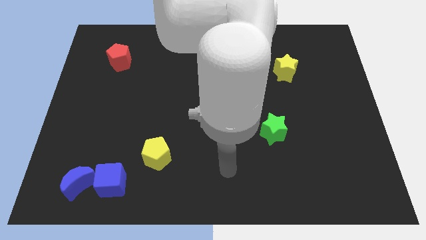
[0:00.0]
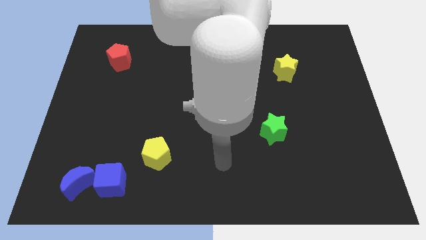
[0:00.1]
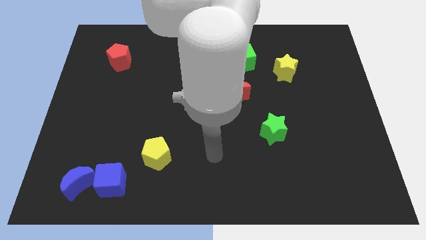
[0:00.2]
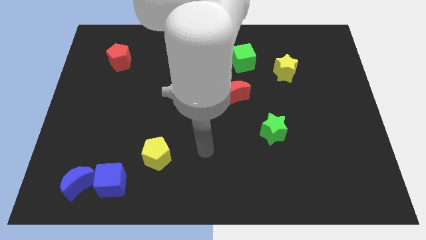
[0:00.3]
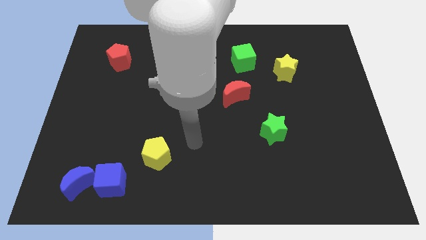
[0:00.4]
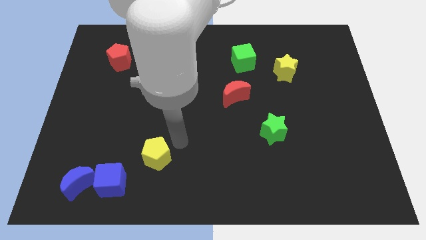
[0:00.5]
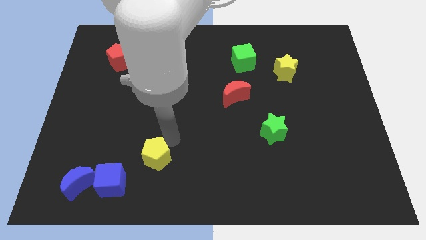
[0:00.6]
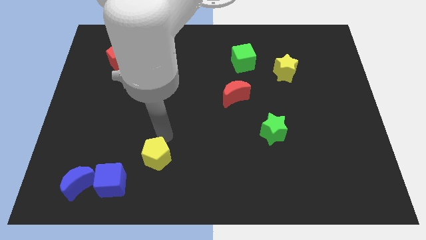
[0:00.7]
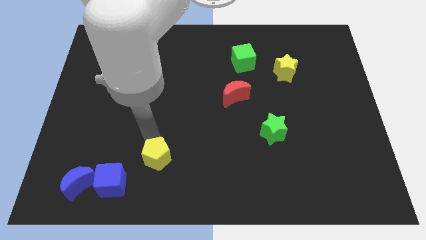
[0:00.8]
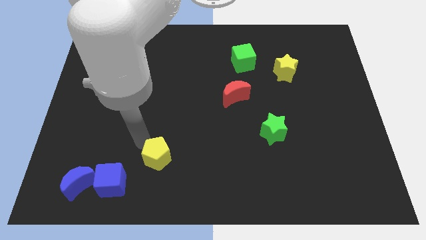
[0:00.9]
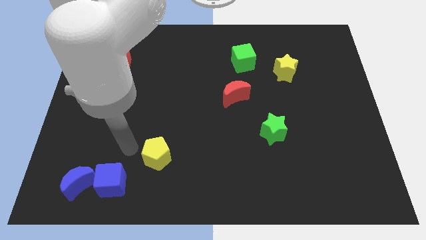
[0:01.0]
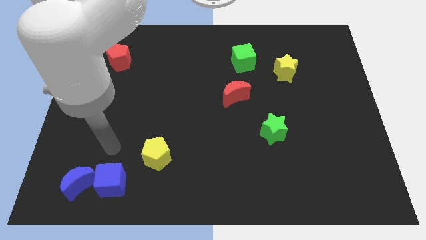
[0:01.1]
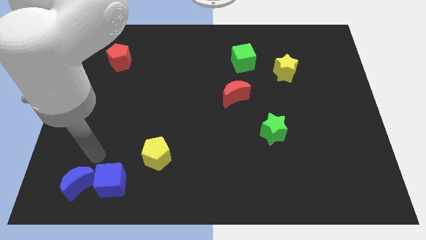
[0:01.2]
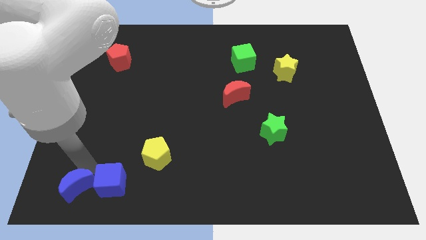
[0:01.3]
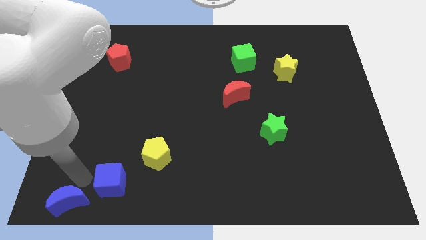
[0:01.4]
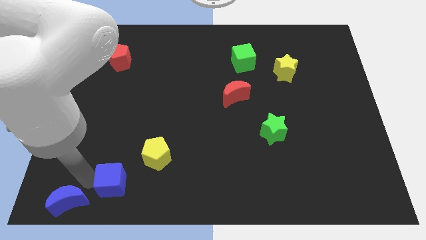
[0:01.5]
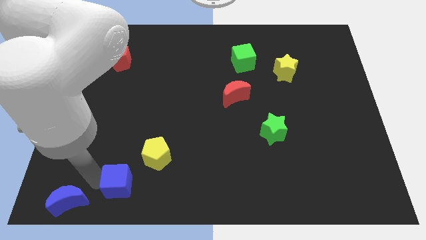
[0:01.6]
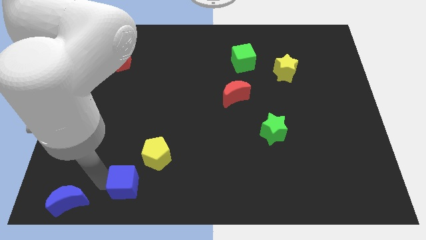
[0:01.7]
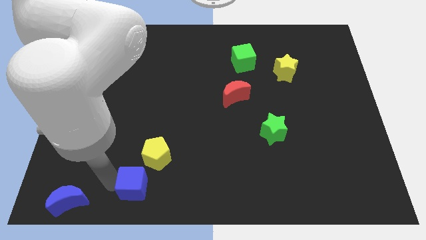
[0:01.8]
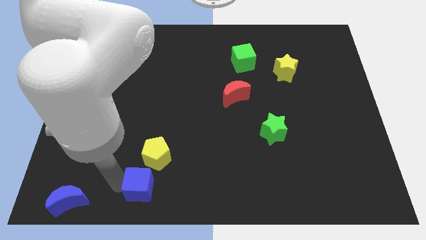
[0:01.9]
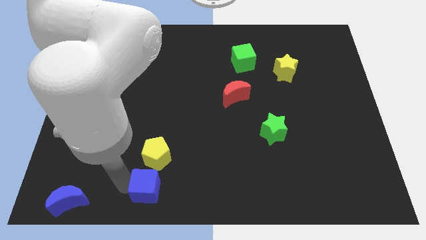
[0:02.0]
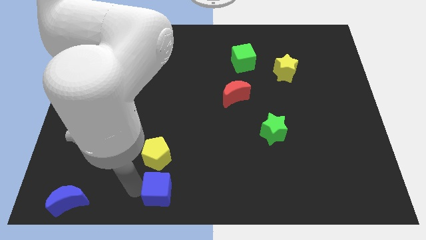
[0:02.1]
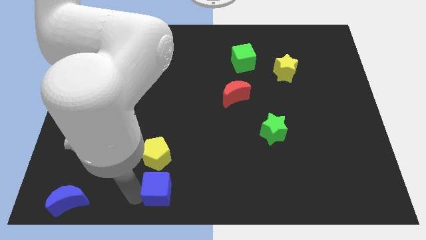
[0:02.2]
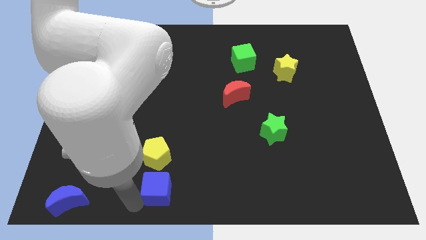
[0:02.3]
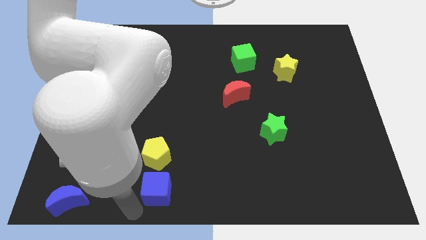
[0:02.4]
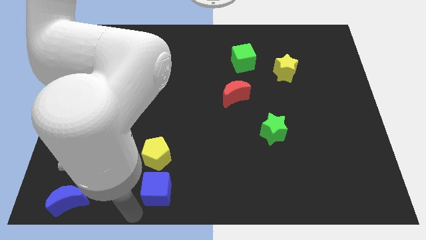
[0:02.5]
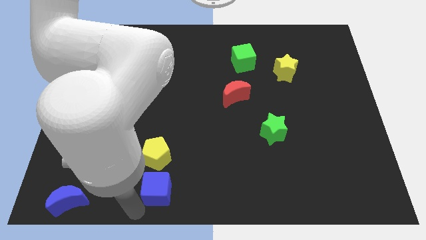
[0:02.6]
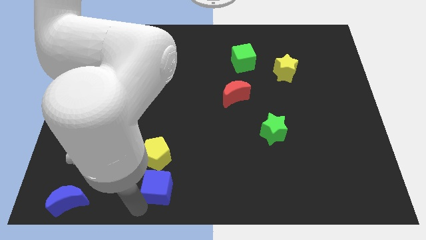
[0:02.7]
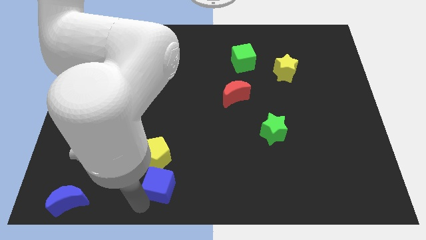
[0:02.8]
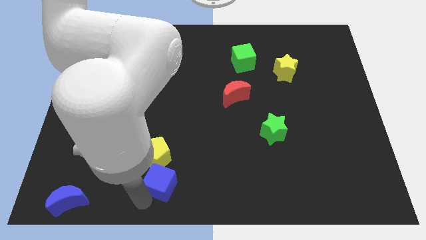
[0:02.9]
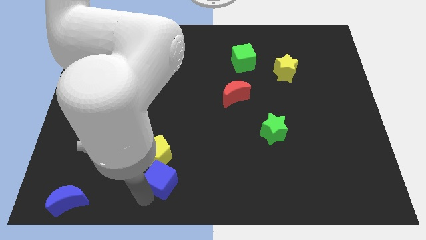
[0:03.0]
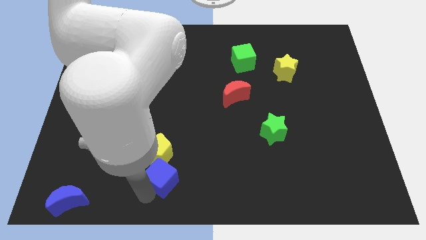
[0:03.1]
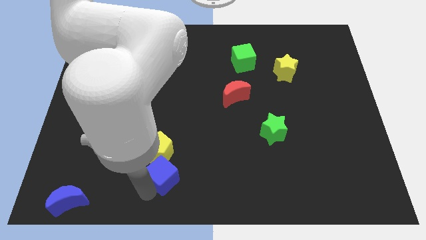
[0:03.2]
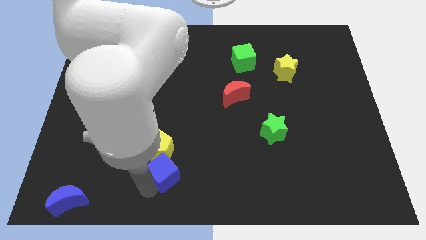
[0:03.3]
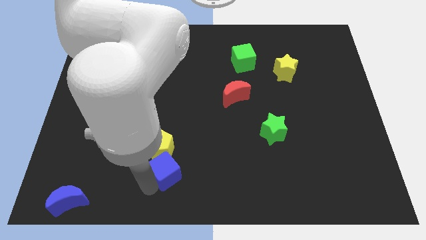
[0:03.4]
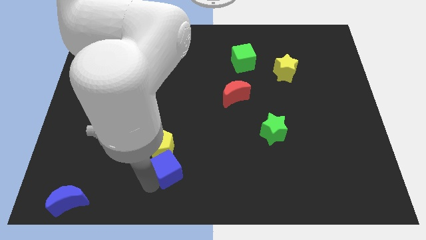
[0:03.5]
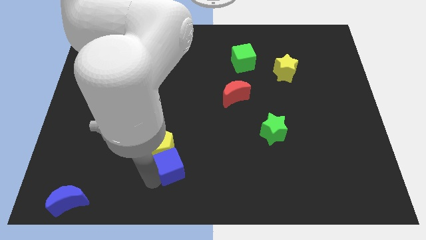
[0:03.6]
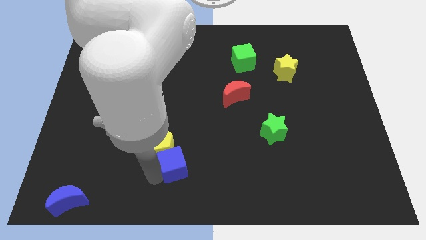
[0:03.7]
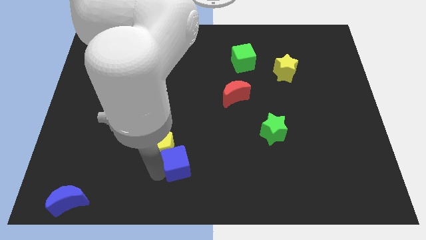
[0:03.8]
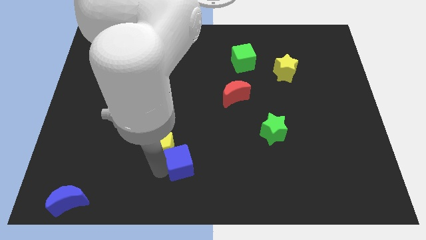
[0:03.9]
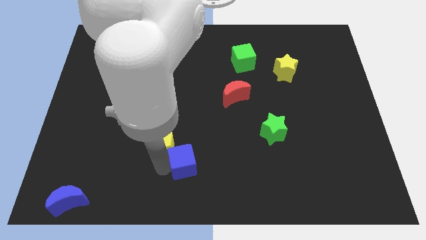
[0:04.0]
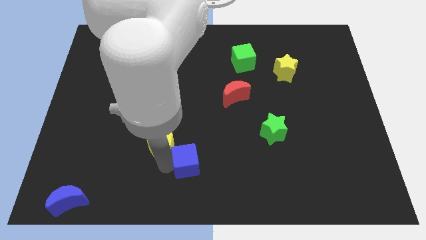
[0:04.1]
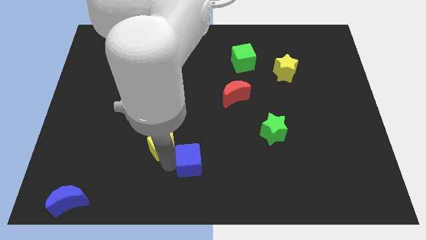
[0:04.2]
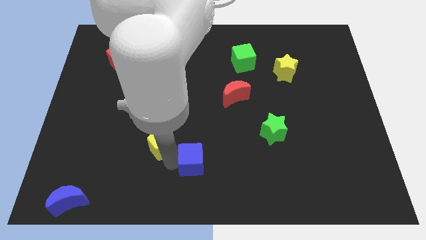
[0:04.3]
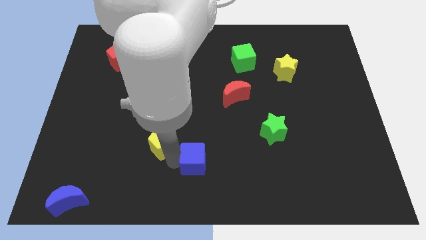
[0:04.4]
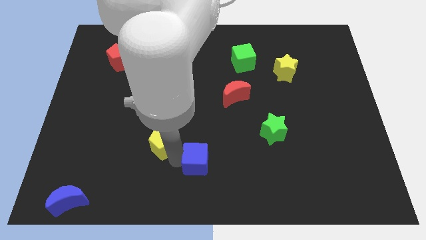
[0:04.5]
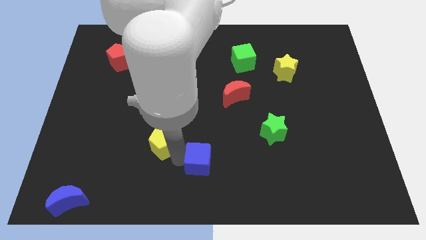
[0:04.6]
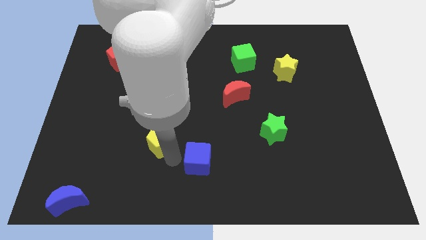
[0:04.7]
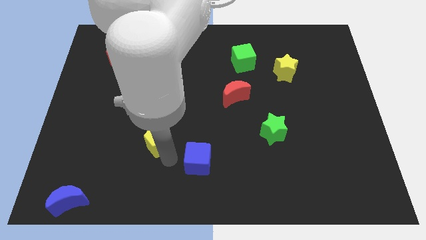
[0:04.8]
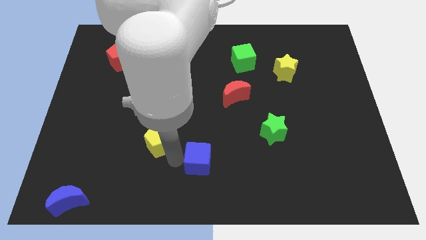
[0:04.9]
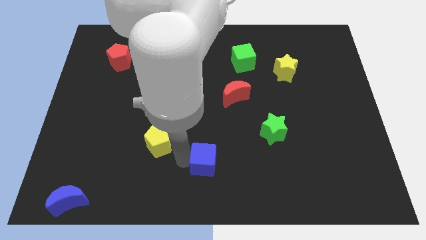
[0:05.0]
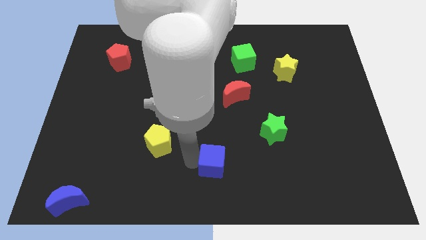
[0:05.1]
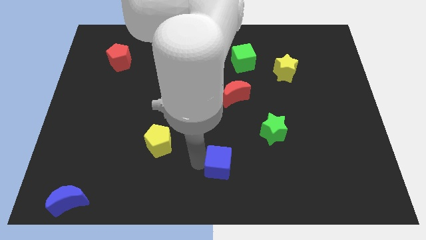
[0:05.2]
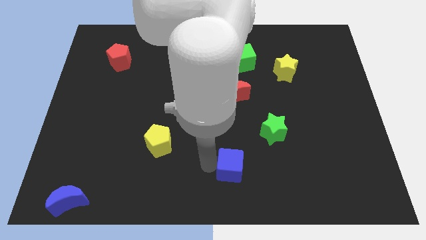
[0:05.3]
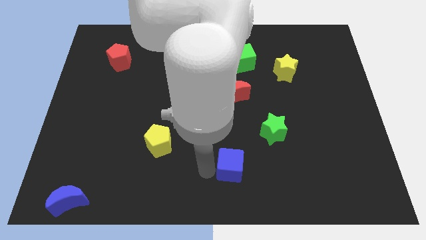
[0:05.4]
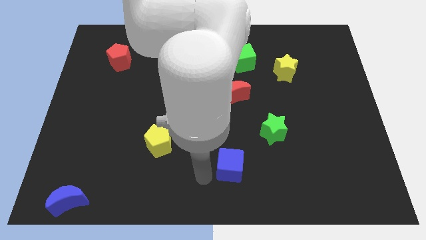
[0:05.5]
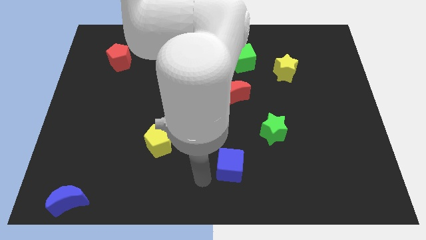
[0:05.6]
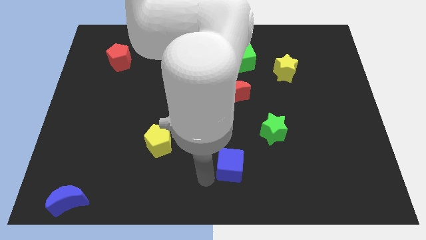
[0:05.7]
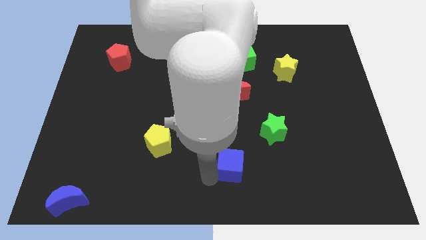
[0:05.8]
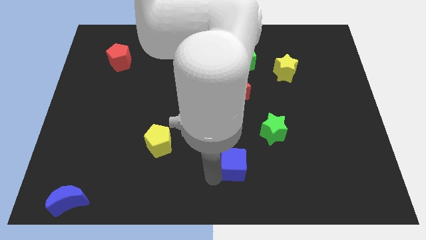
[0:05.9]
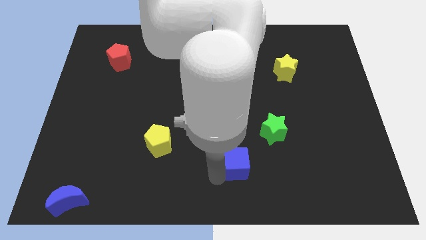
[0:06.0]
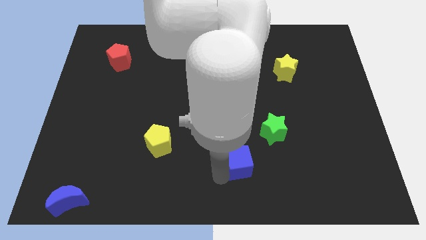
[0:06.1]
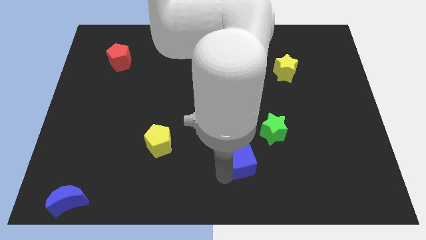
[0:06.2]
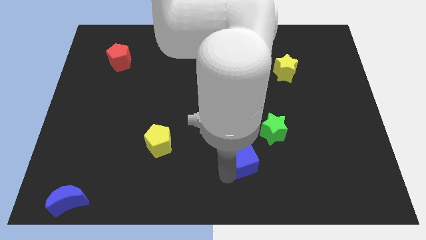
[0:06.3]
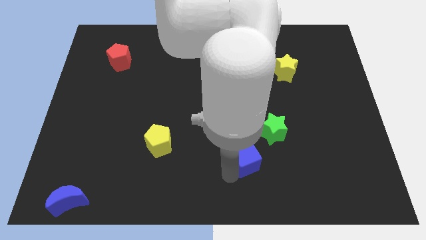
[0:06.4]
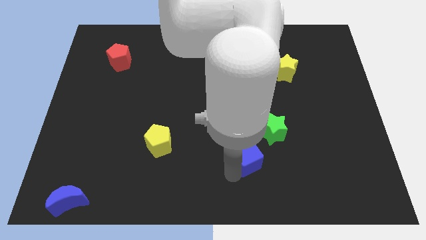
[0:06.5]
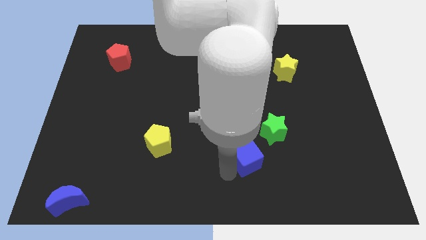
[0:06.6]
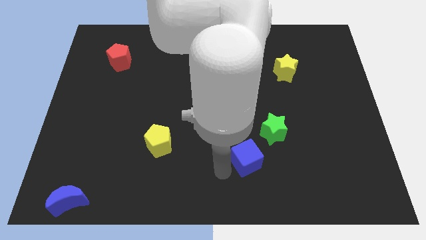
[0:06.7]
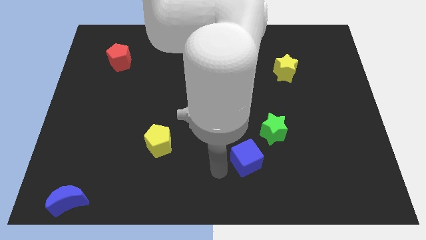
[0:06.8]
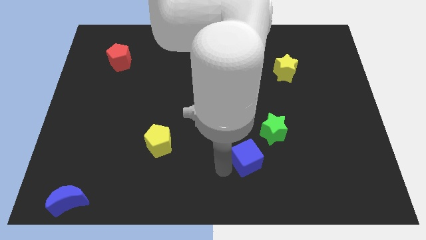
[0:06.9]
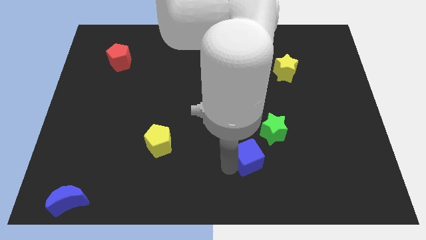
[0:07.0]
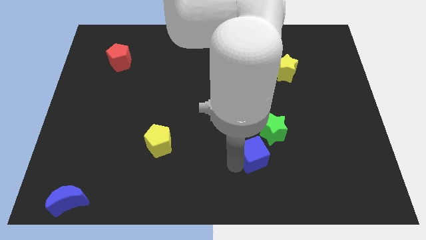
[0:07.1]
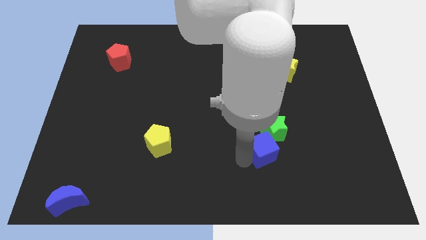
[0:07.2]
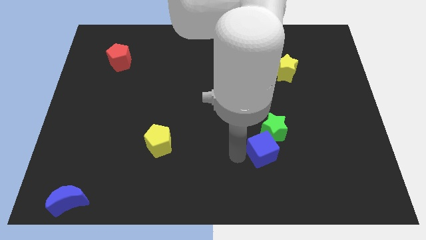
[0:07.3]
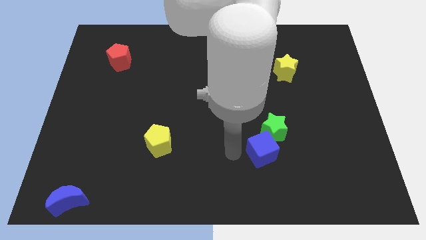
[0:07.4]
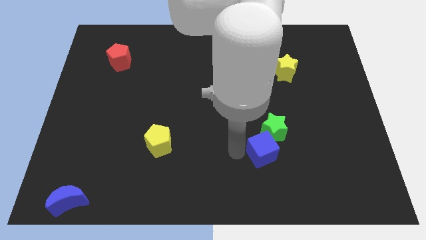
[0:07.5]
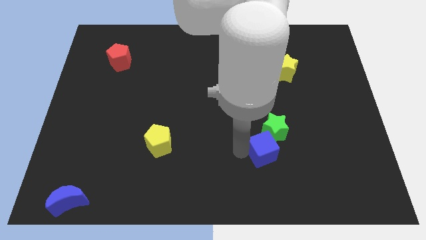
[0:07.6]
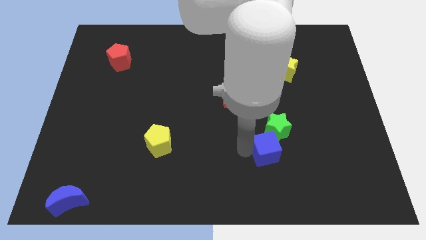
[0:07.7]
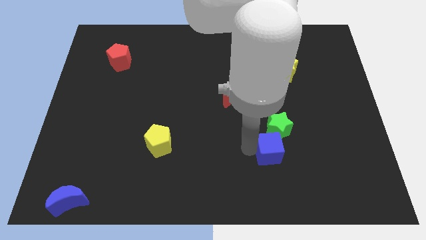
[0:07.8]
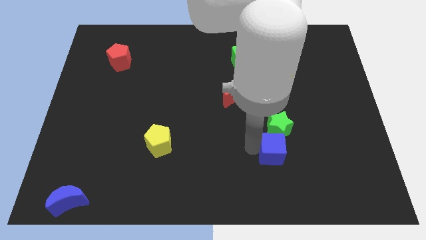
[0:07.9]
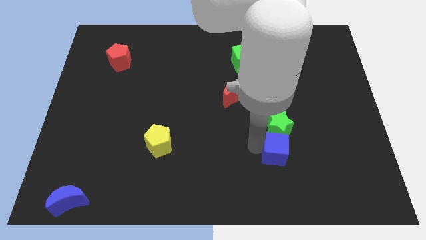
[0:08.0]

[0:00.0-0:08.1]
push the blue cube diagonally down and to the right of the green star
